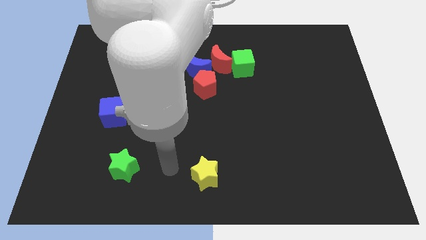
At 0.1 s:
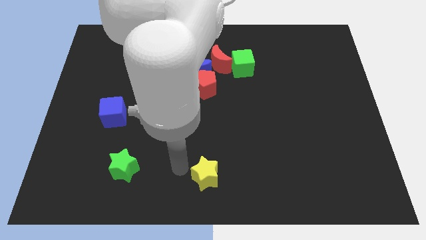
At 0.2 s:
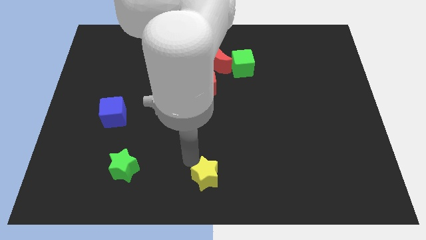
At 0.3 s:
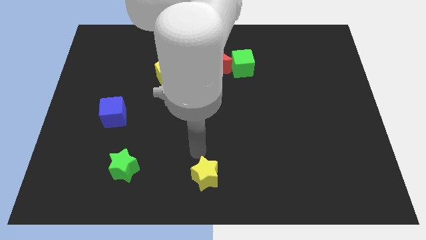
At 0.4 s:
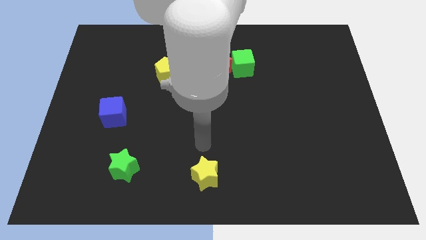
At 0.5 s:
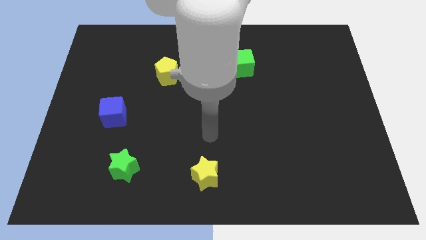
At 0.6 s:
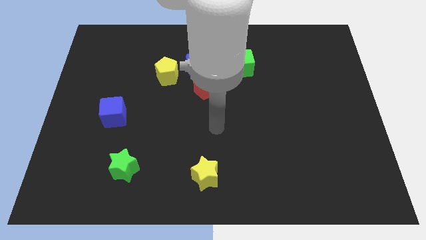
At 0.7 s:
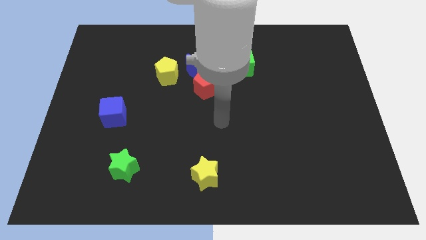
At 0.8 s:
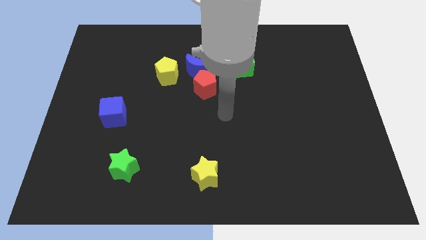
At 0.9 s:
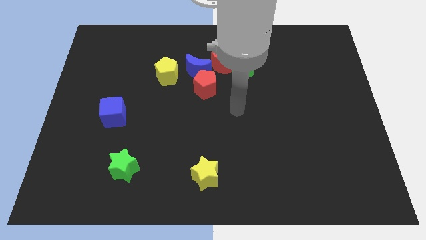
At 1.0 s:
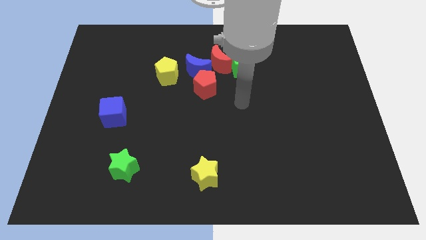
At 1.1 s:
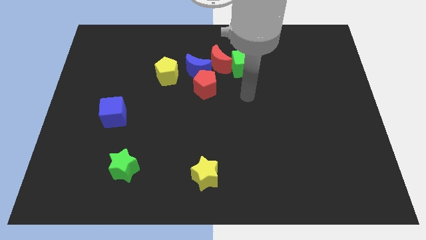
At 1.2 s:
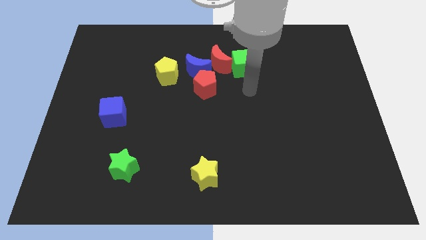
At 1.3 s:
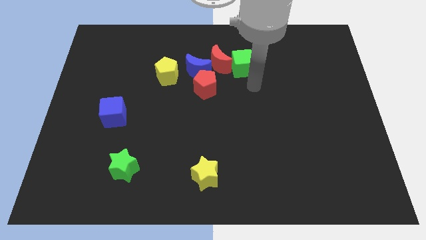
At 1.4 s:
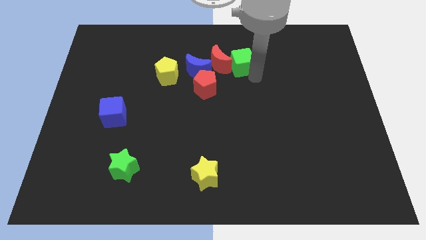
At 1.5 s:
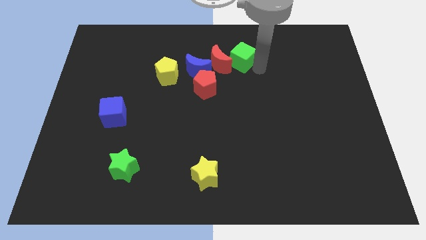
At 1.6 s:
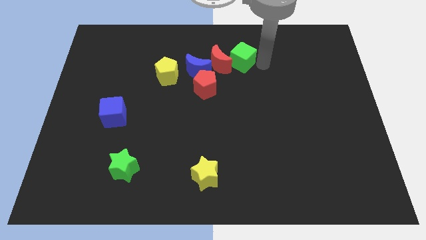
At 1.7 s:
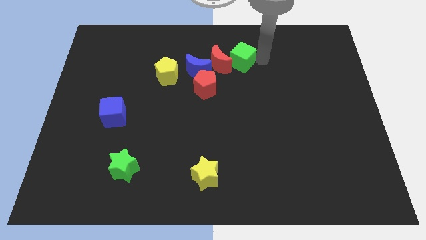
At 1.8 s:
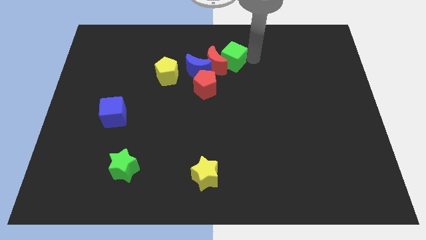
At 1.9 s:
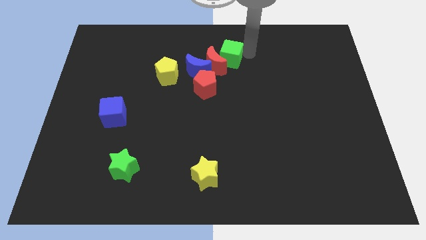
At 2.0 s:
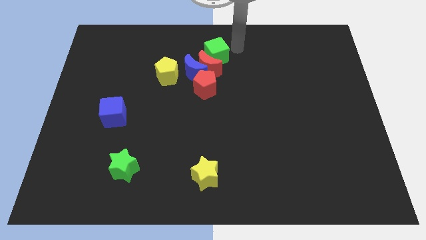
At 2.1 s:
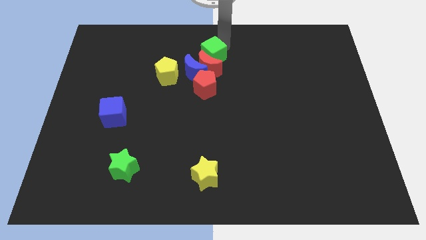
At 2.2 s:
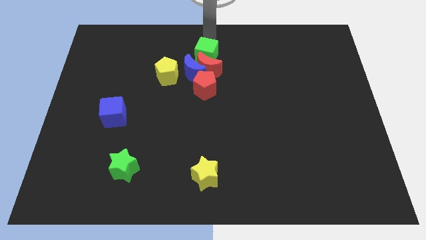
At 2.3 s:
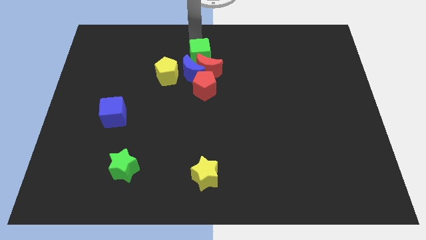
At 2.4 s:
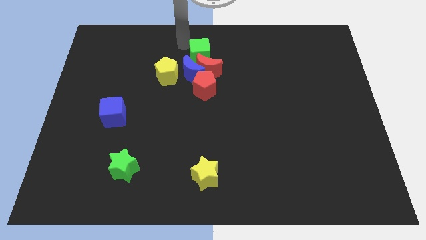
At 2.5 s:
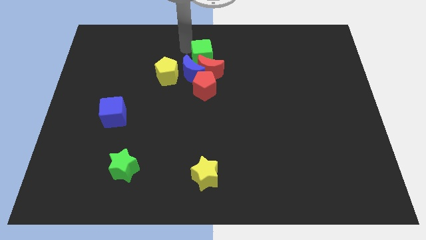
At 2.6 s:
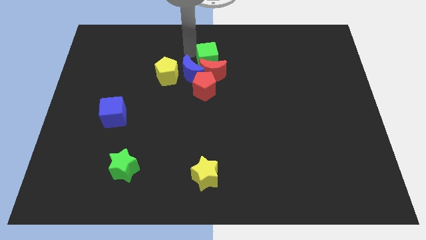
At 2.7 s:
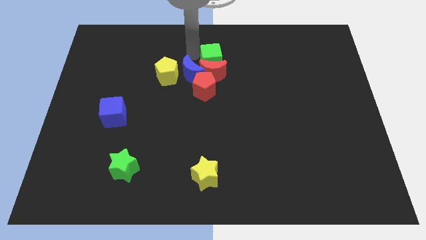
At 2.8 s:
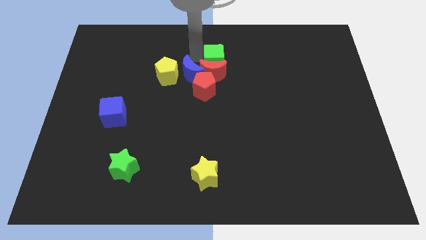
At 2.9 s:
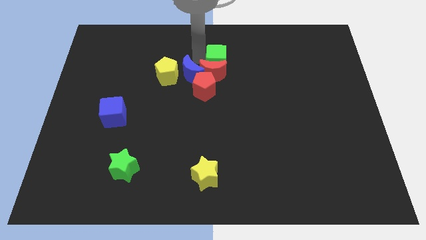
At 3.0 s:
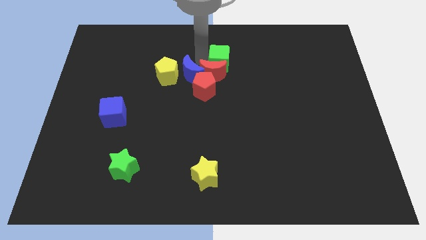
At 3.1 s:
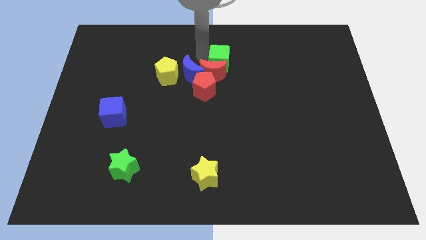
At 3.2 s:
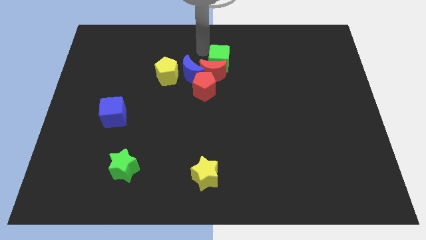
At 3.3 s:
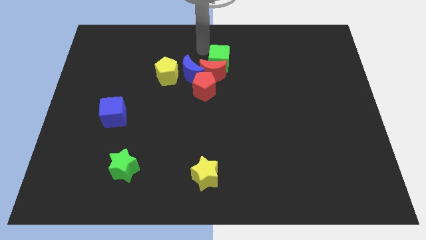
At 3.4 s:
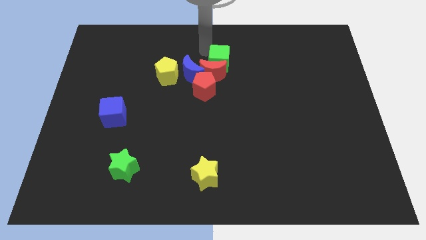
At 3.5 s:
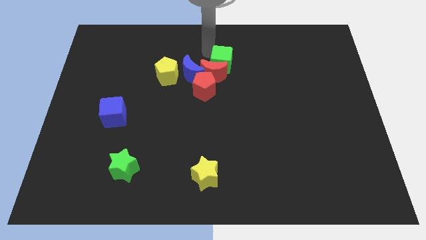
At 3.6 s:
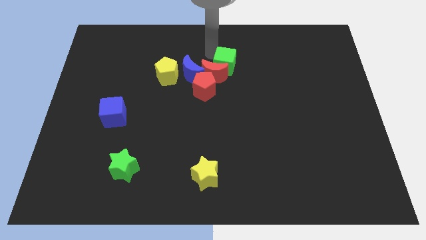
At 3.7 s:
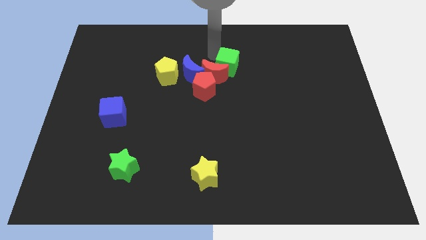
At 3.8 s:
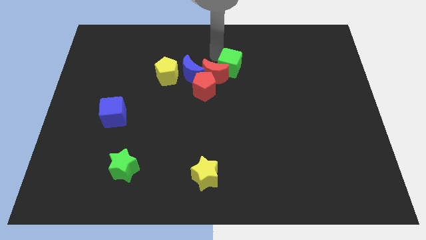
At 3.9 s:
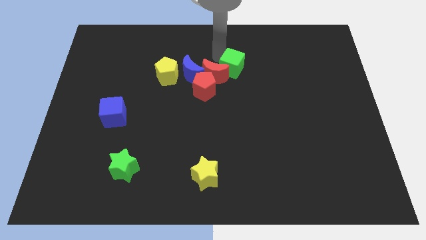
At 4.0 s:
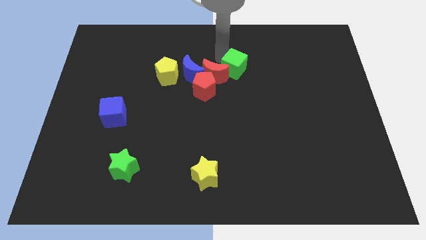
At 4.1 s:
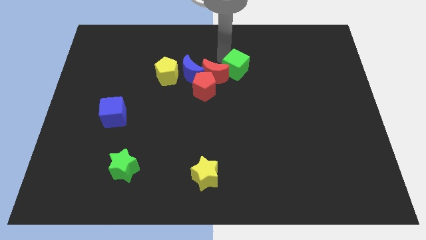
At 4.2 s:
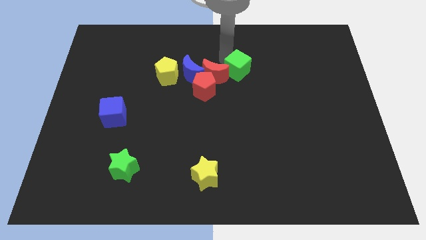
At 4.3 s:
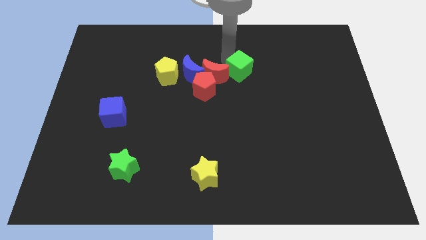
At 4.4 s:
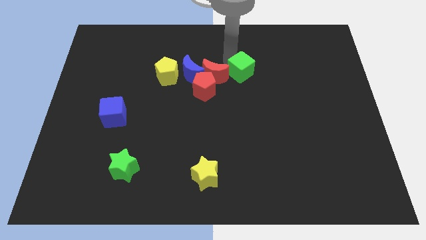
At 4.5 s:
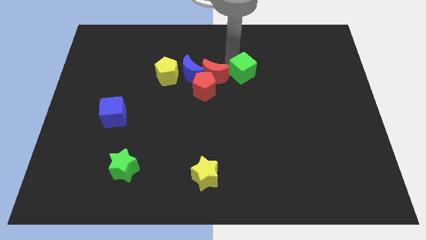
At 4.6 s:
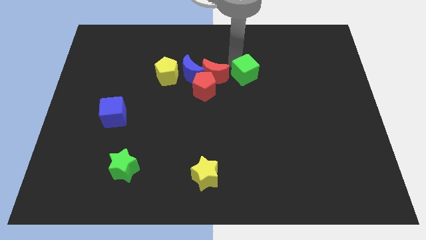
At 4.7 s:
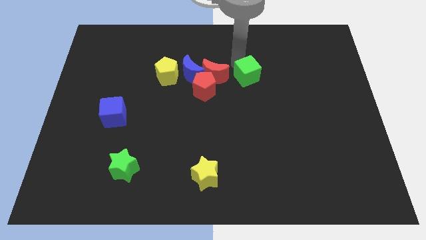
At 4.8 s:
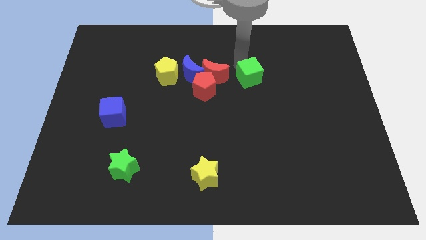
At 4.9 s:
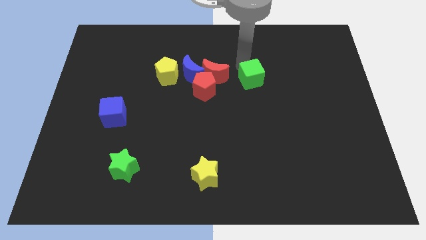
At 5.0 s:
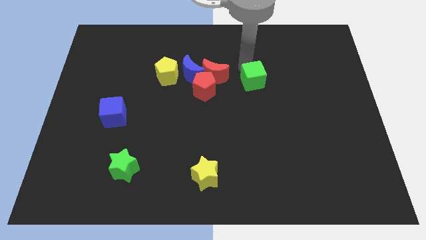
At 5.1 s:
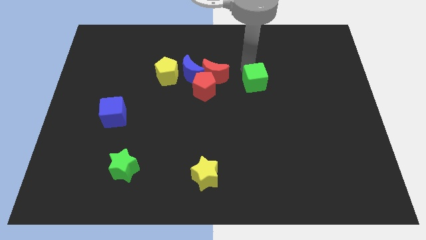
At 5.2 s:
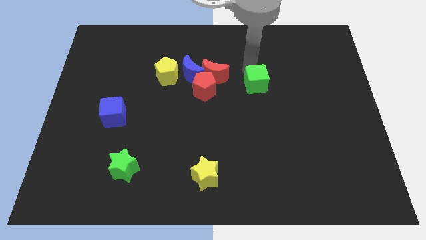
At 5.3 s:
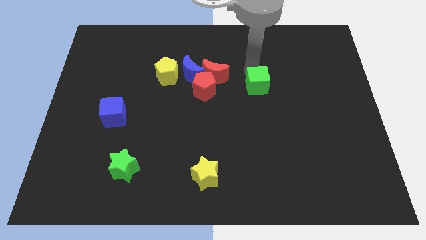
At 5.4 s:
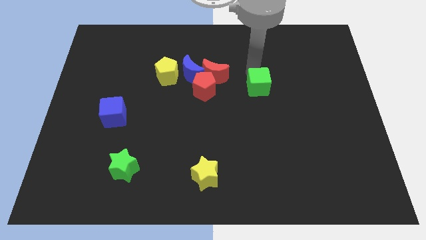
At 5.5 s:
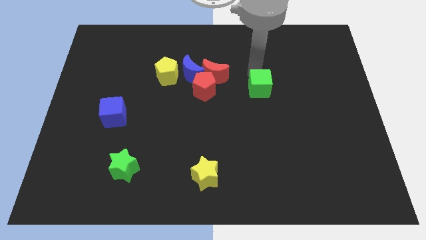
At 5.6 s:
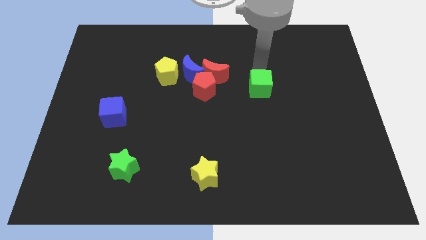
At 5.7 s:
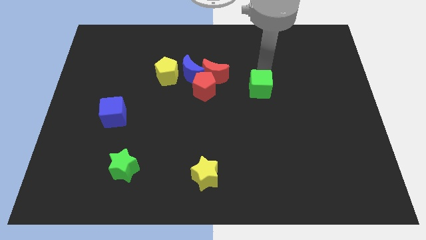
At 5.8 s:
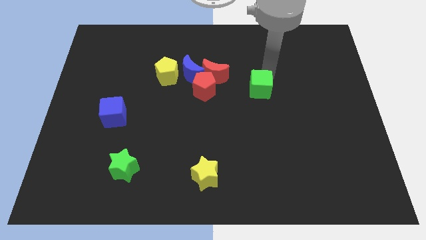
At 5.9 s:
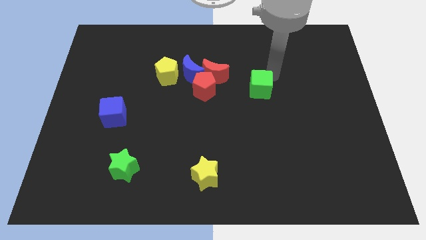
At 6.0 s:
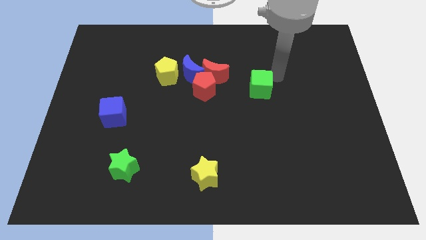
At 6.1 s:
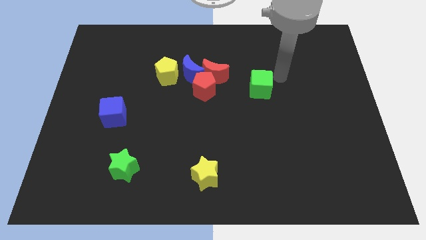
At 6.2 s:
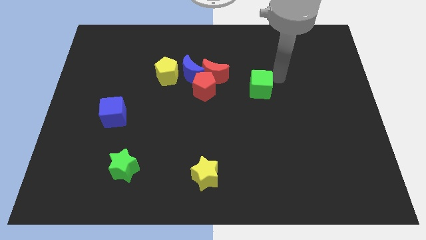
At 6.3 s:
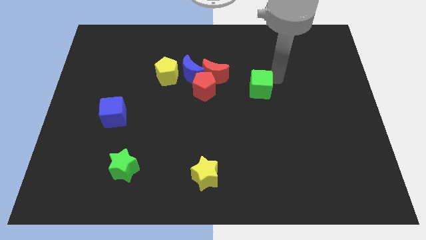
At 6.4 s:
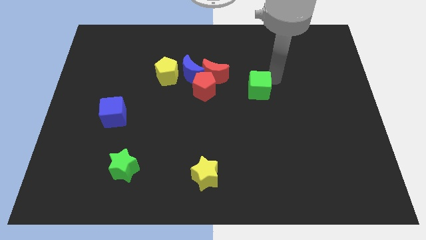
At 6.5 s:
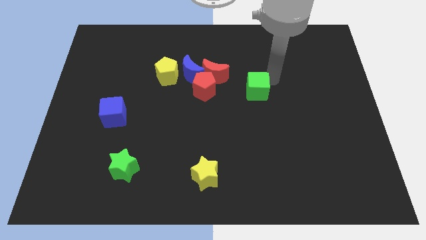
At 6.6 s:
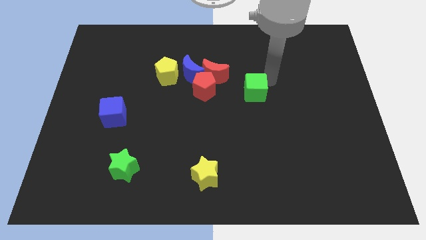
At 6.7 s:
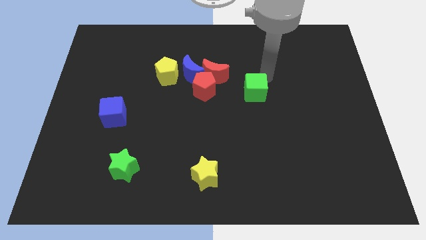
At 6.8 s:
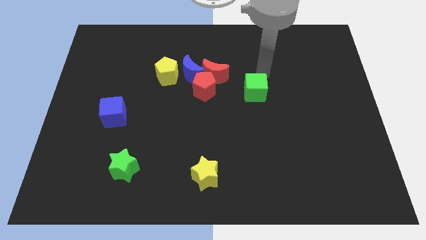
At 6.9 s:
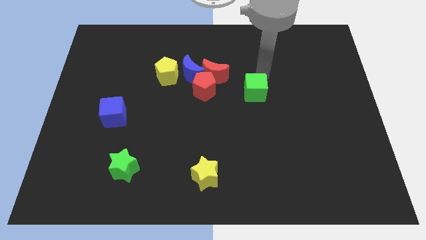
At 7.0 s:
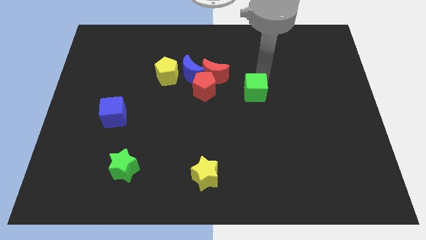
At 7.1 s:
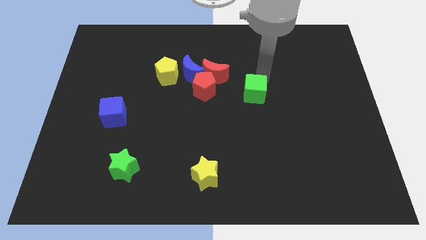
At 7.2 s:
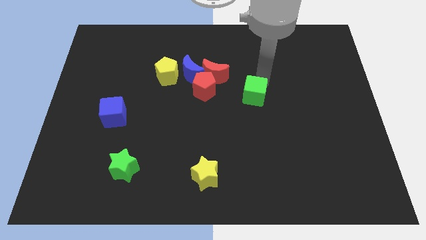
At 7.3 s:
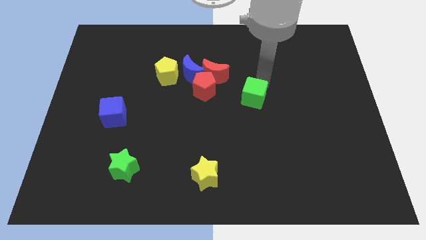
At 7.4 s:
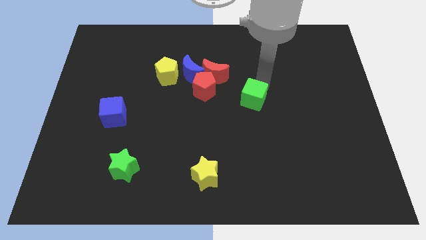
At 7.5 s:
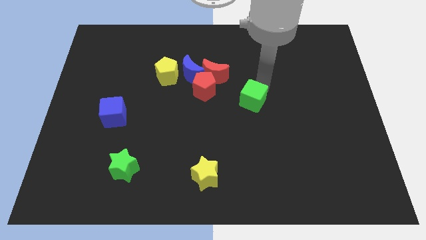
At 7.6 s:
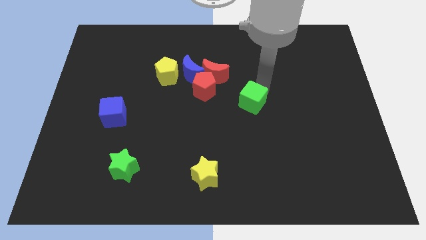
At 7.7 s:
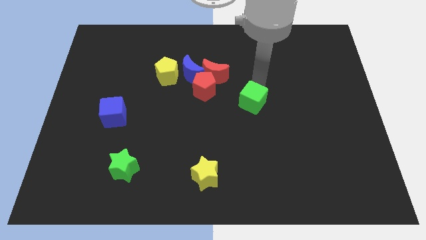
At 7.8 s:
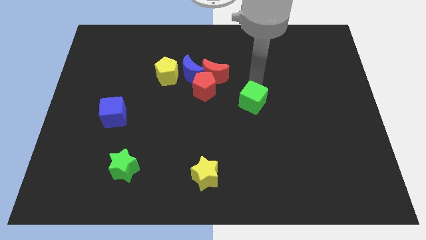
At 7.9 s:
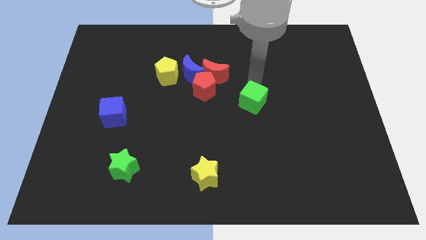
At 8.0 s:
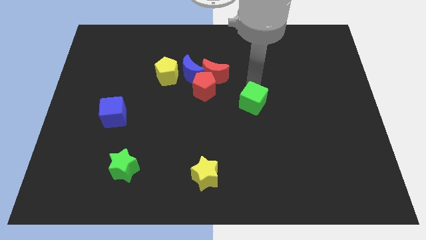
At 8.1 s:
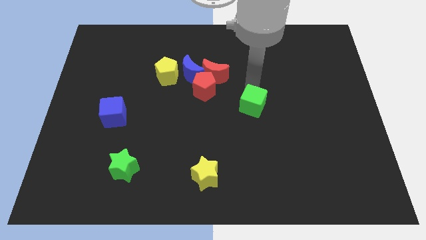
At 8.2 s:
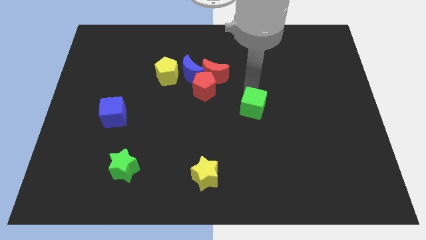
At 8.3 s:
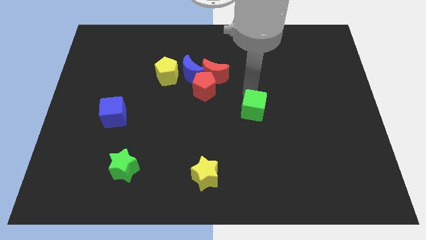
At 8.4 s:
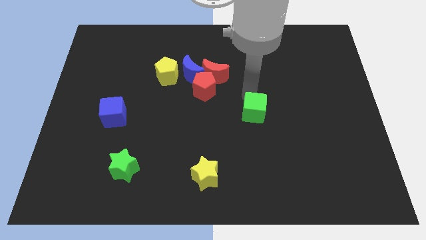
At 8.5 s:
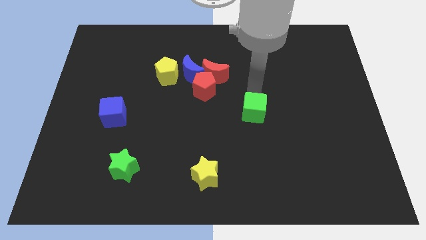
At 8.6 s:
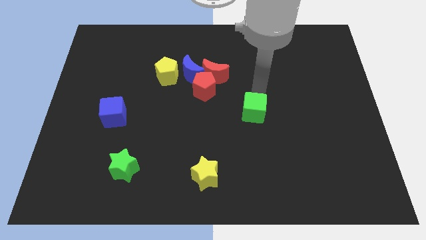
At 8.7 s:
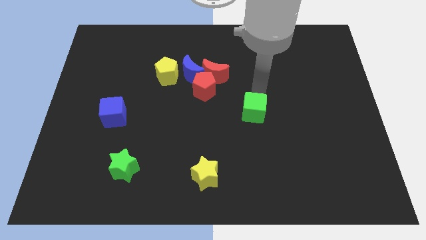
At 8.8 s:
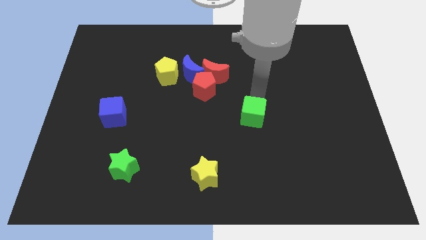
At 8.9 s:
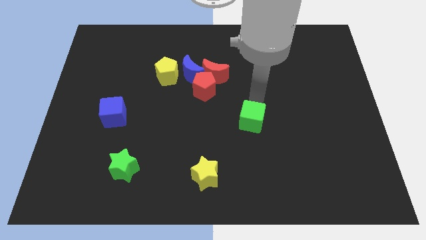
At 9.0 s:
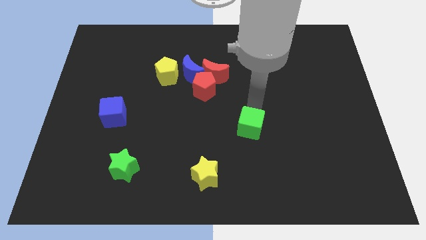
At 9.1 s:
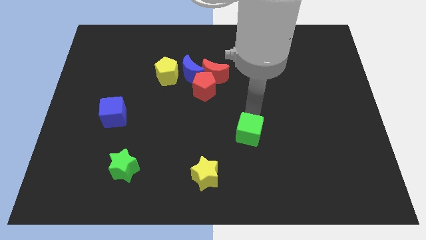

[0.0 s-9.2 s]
push the green cube downwards
